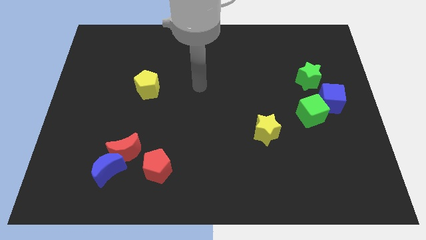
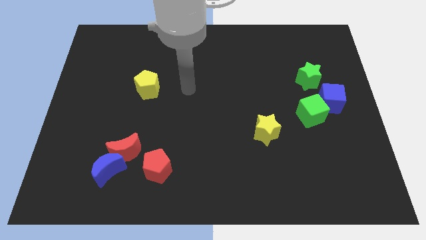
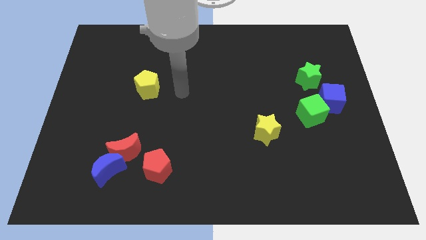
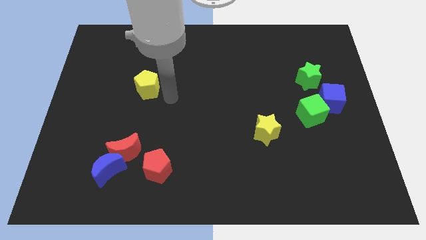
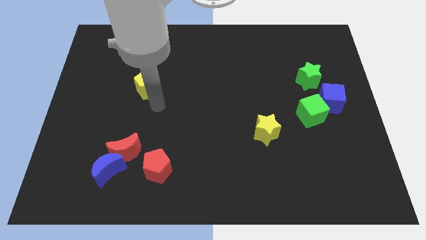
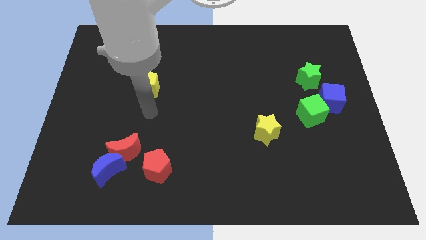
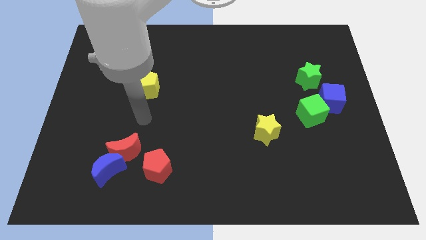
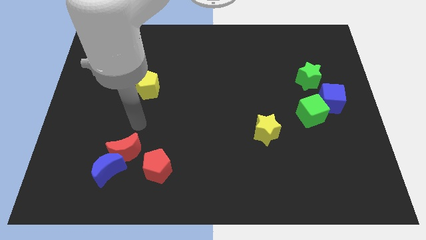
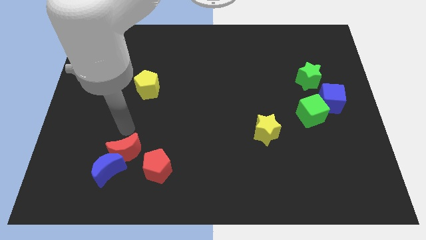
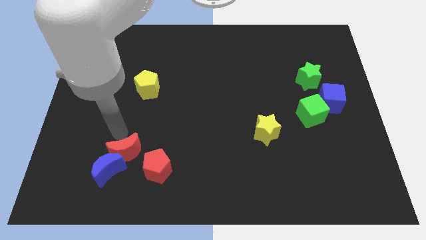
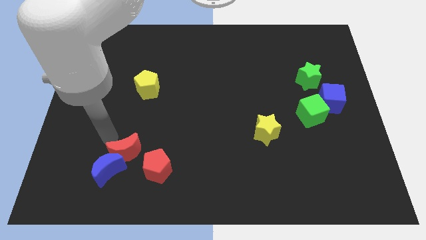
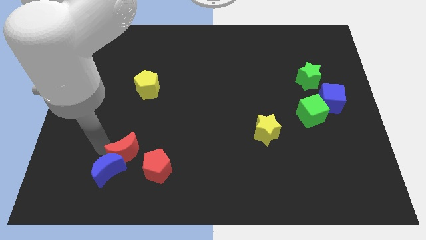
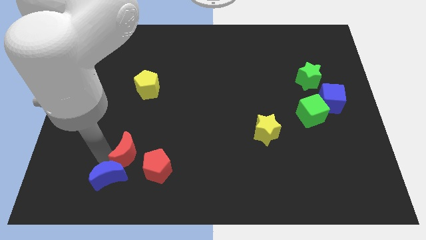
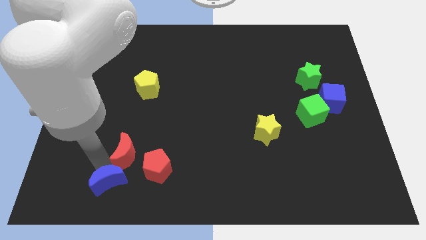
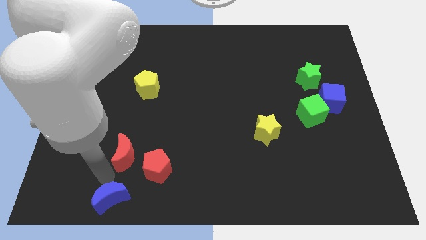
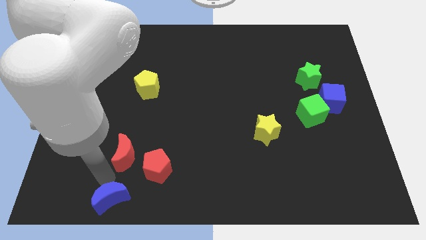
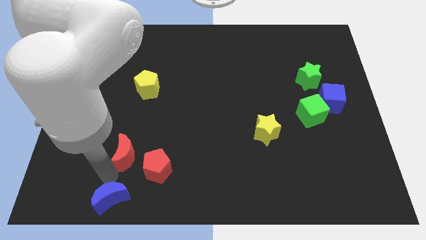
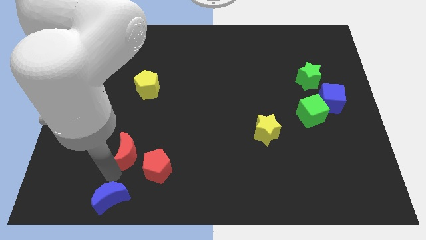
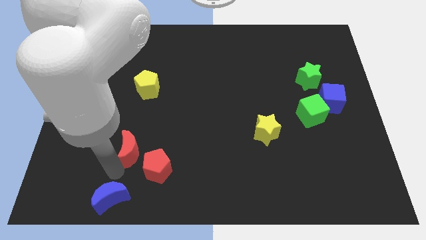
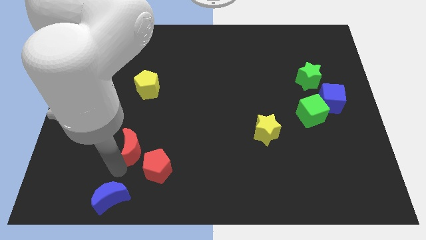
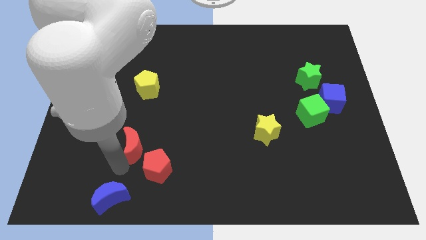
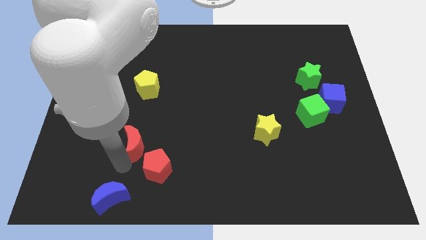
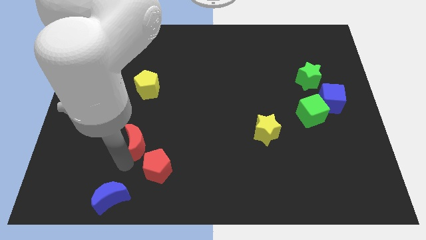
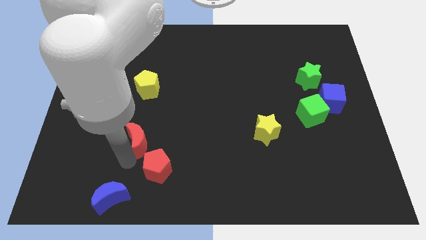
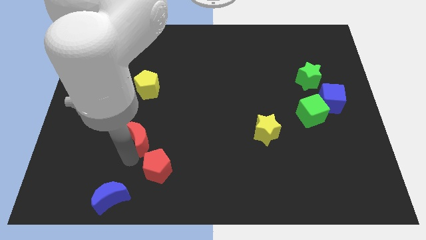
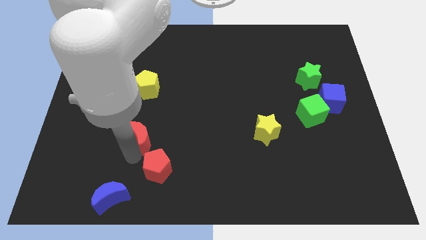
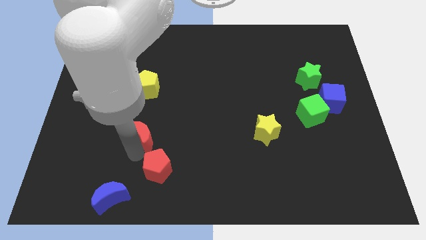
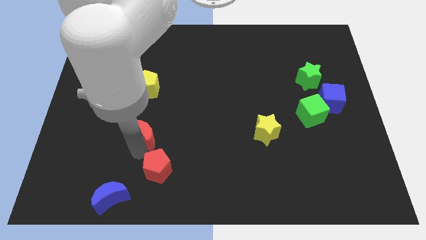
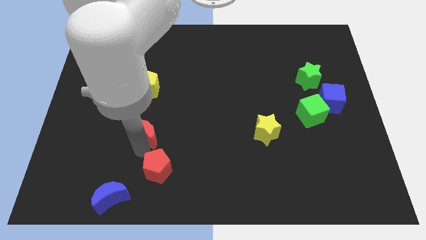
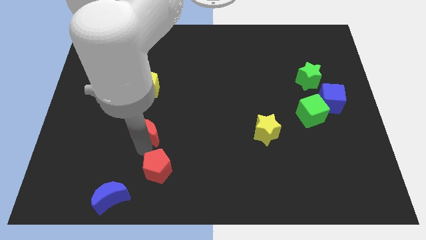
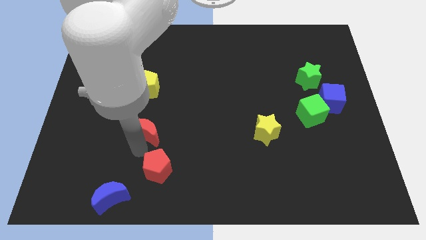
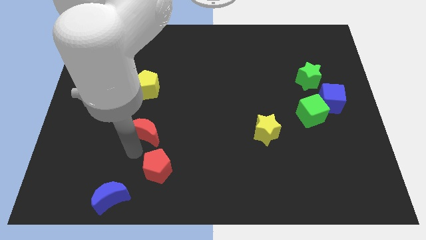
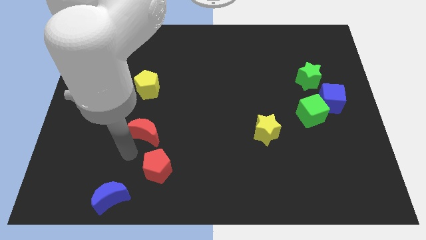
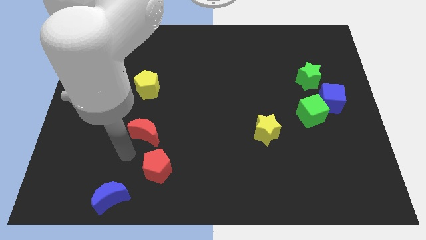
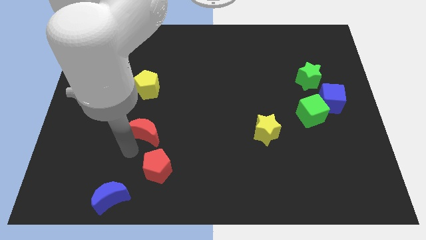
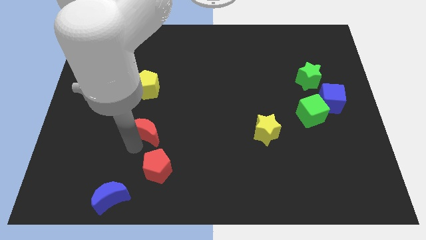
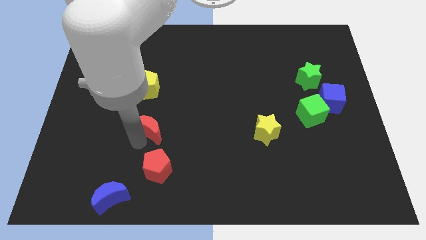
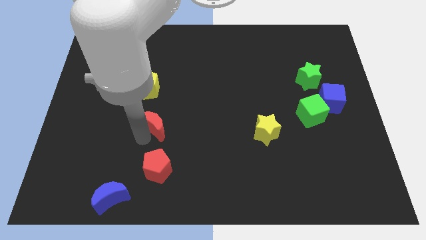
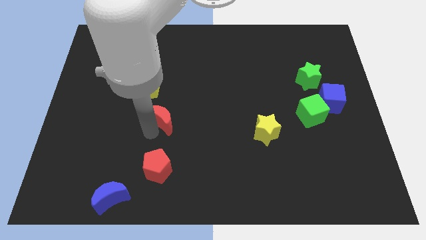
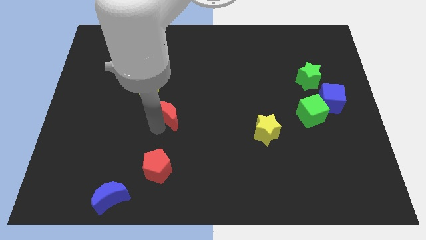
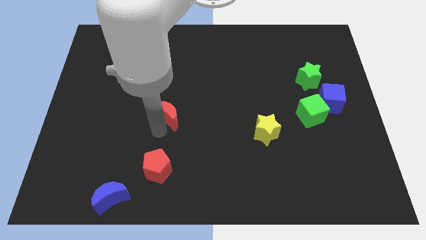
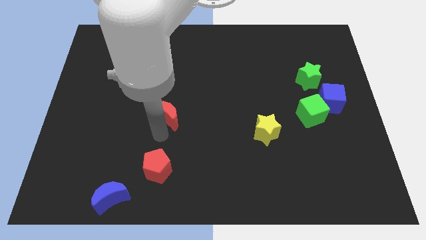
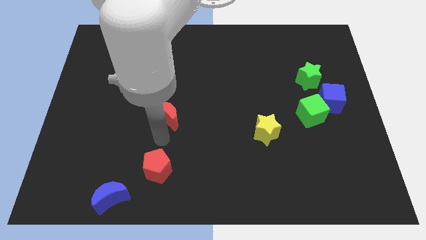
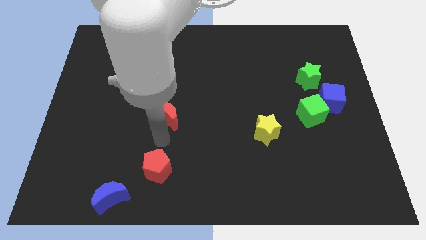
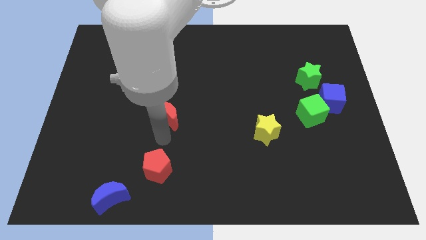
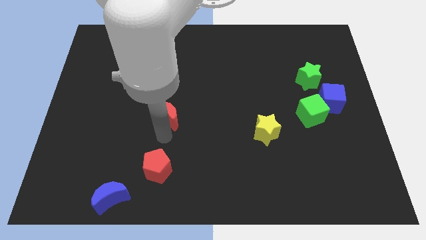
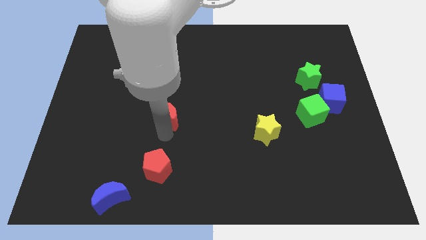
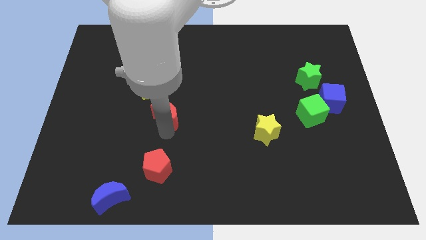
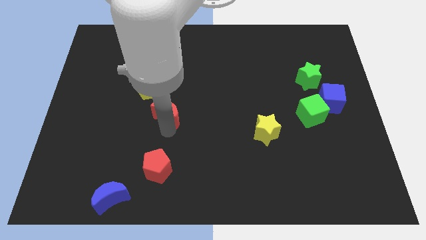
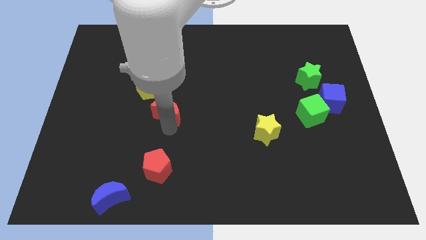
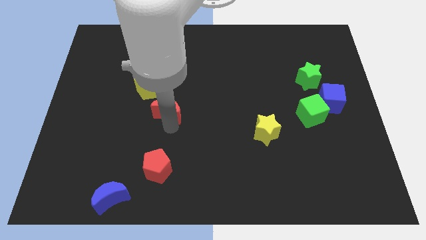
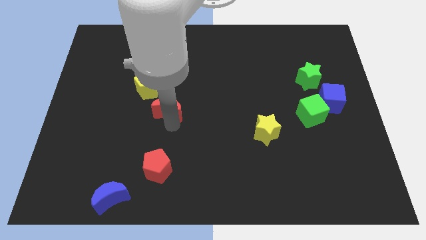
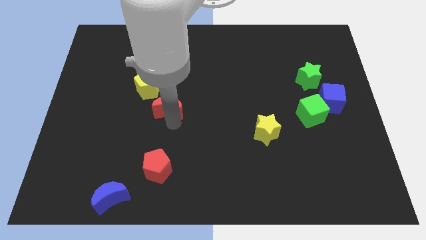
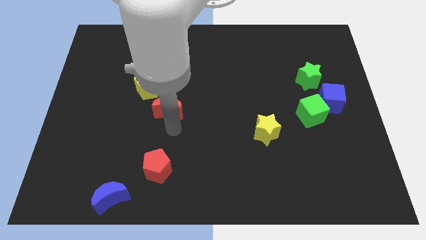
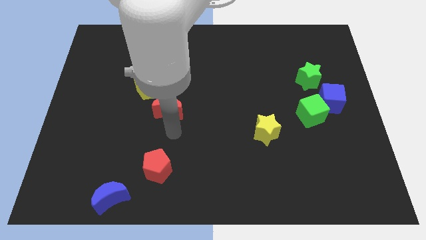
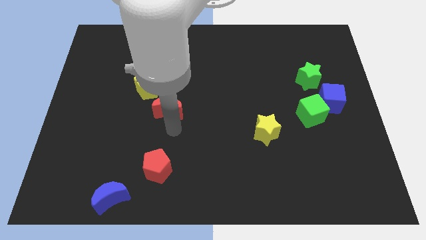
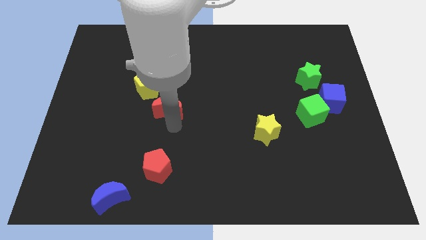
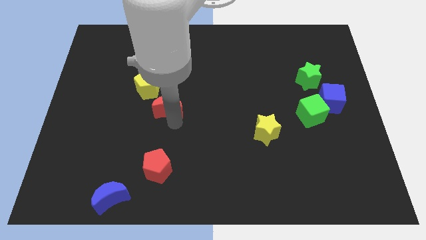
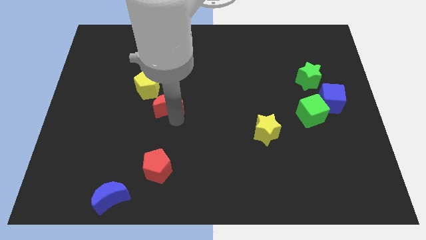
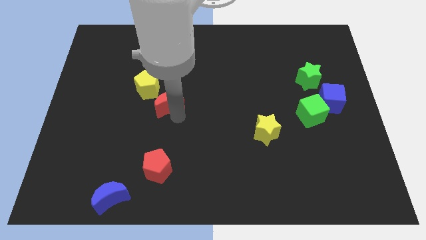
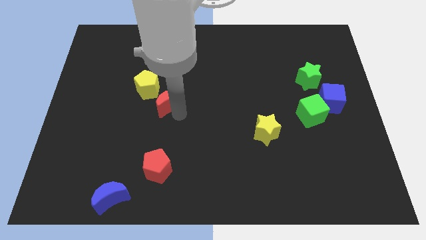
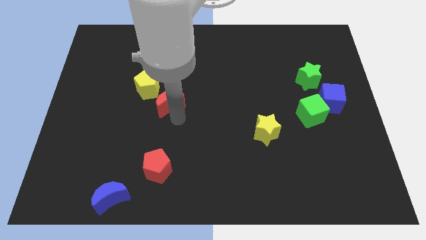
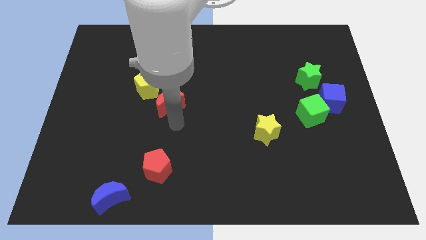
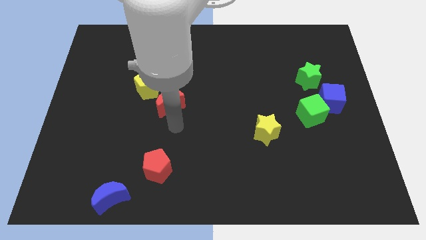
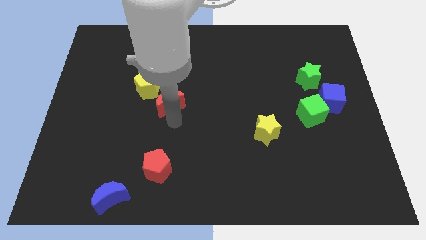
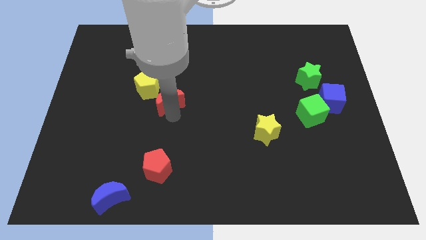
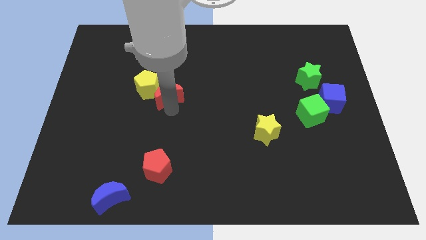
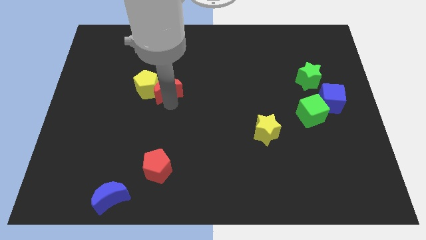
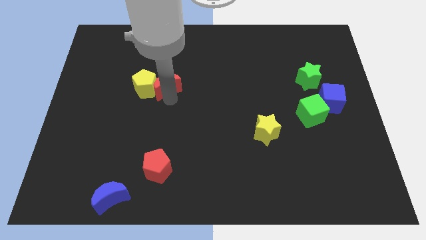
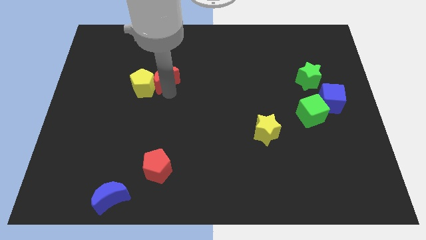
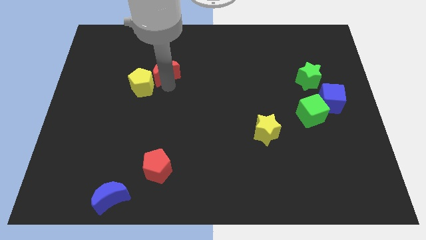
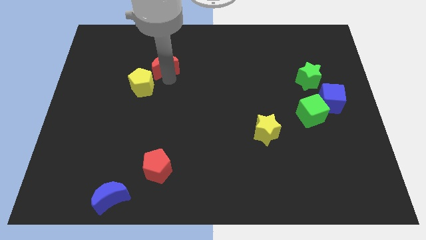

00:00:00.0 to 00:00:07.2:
put the red moon above the yellow pentagon
